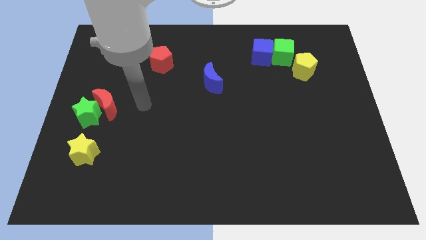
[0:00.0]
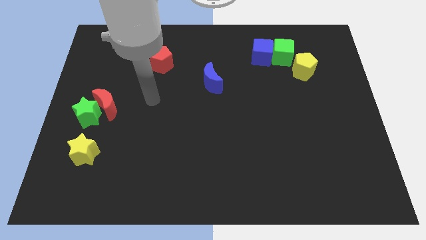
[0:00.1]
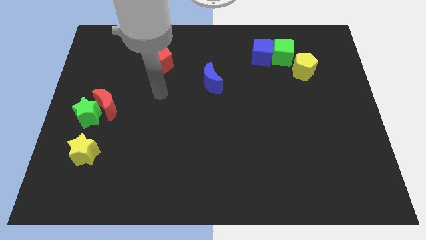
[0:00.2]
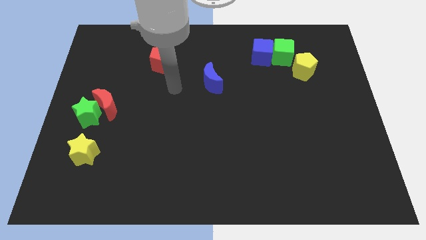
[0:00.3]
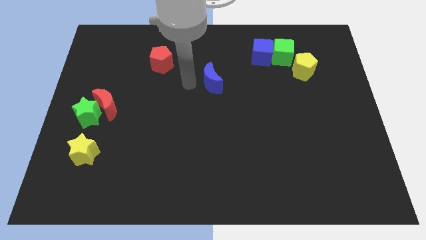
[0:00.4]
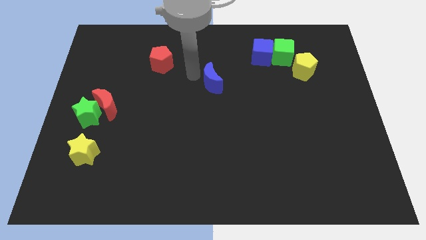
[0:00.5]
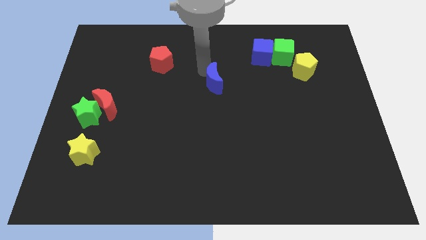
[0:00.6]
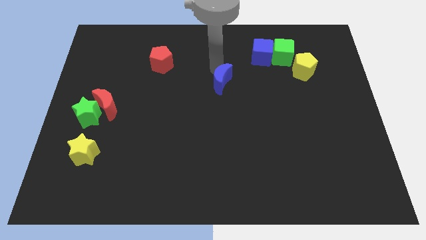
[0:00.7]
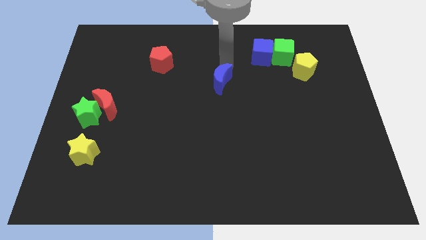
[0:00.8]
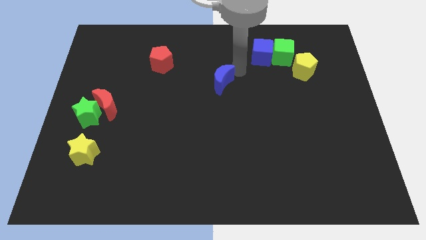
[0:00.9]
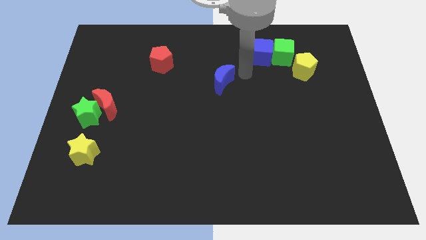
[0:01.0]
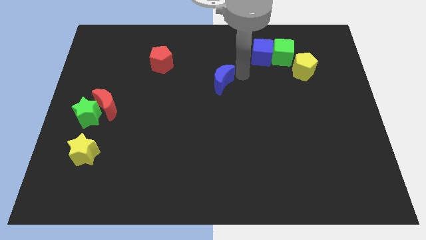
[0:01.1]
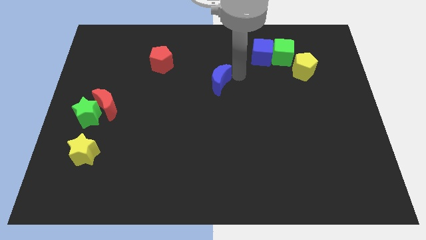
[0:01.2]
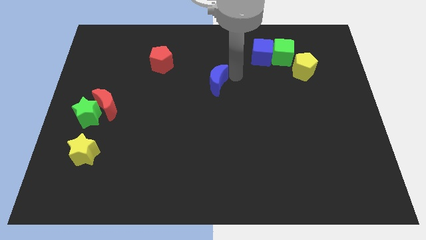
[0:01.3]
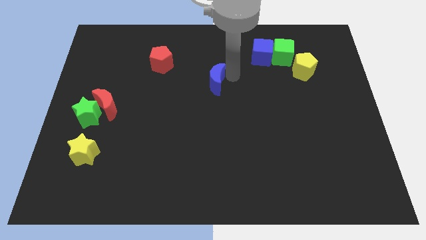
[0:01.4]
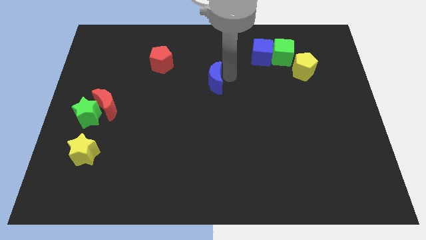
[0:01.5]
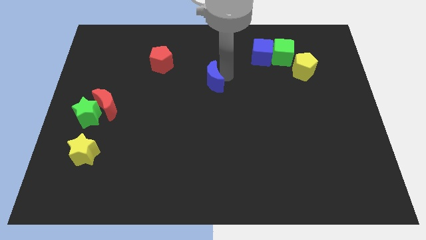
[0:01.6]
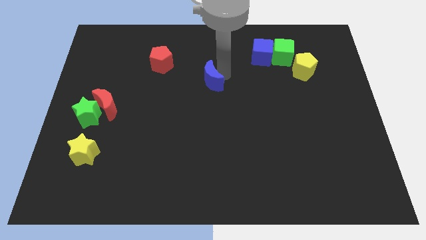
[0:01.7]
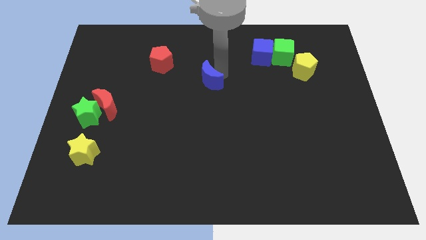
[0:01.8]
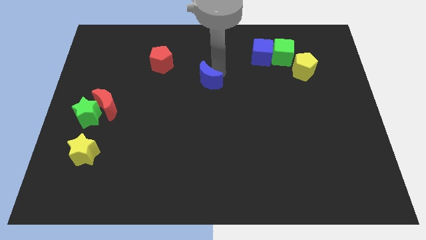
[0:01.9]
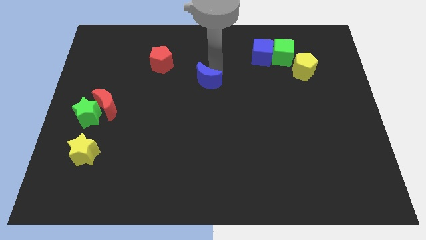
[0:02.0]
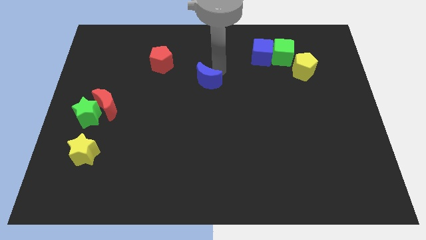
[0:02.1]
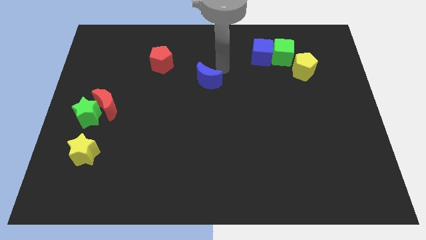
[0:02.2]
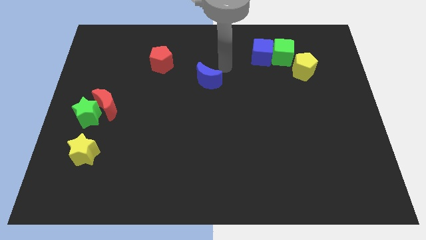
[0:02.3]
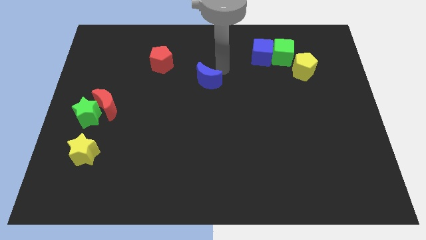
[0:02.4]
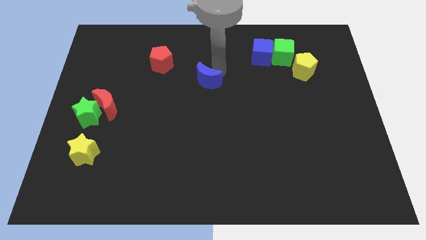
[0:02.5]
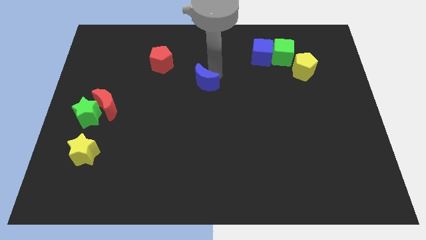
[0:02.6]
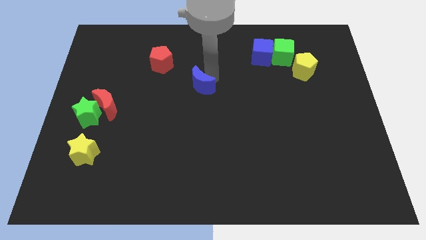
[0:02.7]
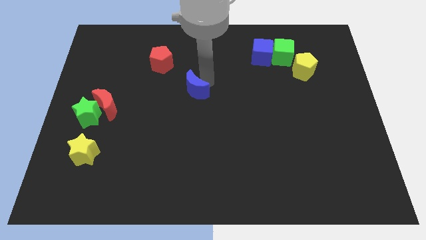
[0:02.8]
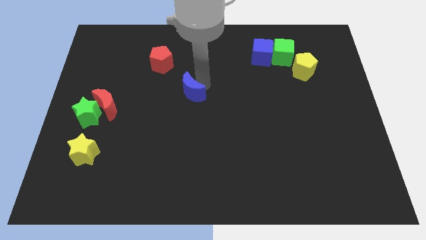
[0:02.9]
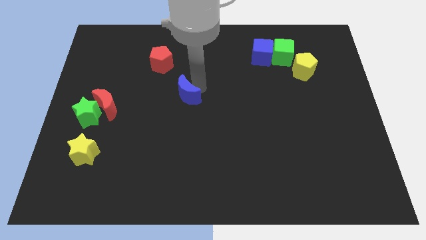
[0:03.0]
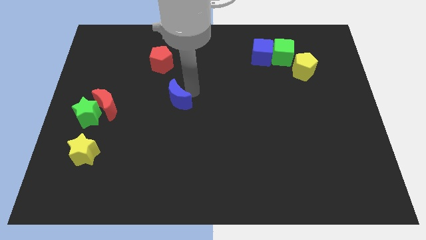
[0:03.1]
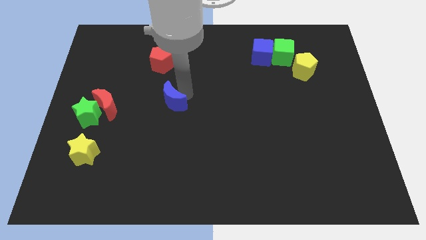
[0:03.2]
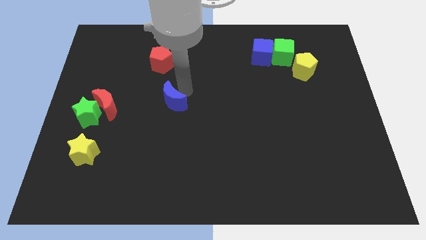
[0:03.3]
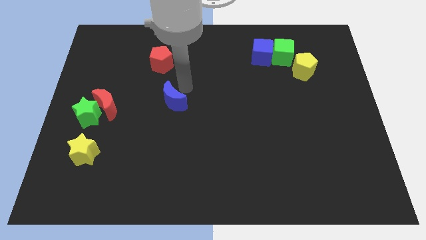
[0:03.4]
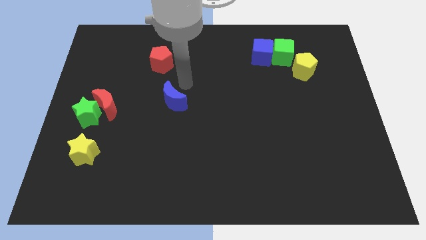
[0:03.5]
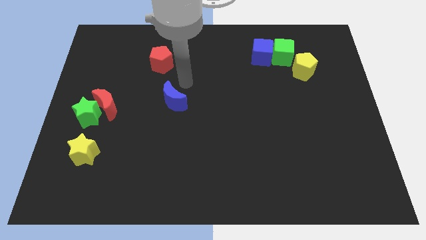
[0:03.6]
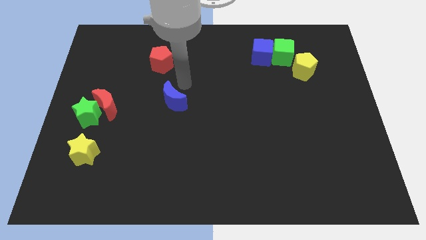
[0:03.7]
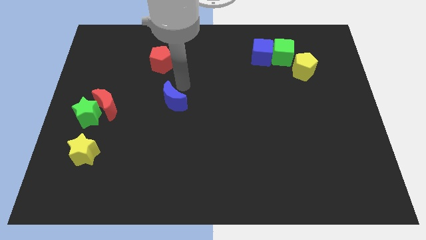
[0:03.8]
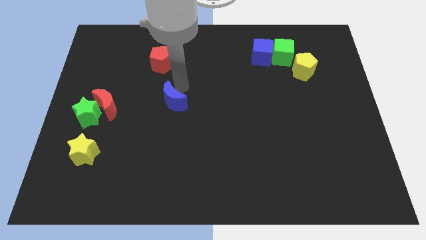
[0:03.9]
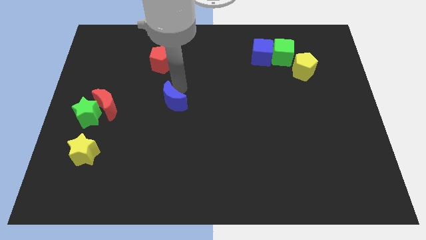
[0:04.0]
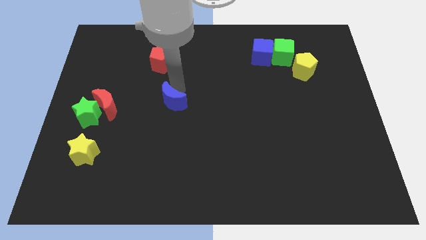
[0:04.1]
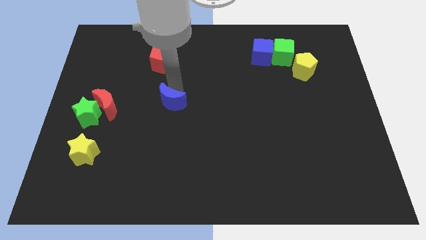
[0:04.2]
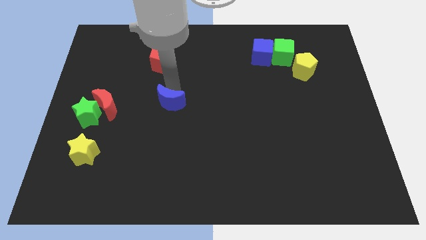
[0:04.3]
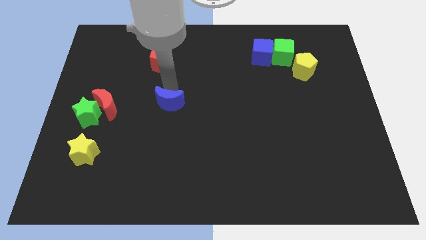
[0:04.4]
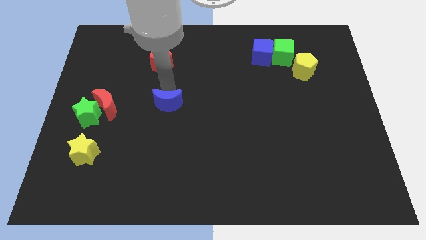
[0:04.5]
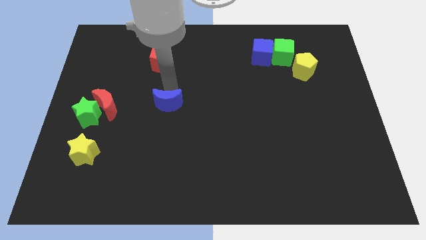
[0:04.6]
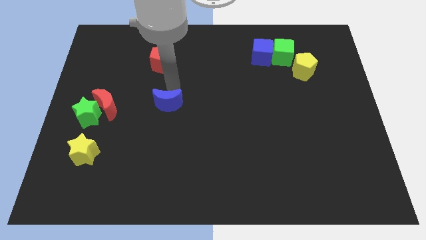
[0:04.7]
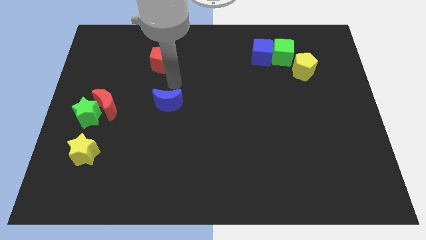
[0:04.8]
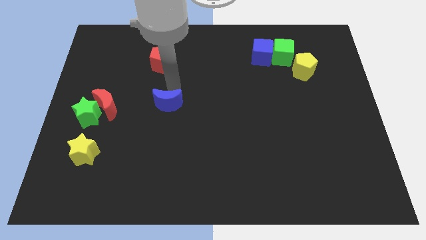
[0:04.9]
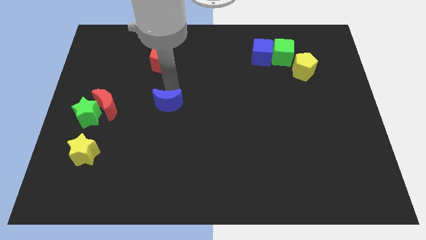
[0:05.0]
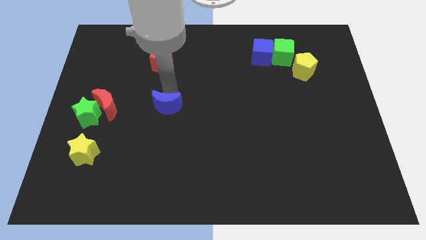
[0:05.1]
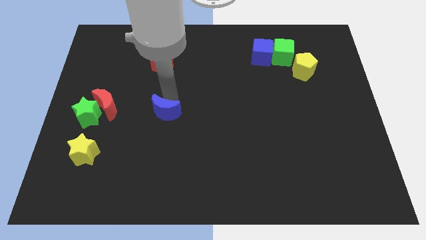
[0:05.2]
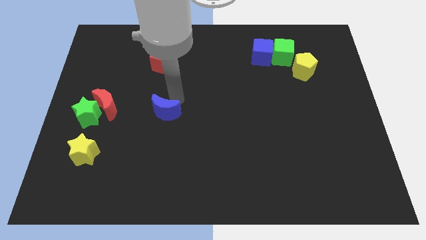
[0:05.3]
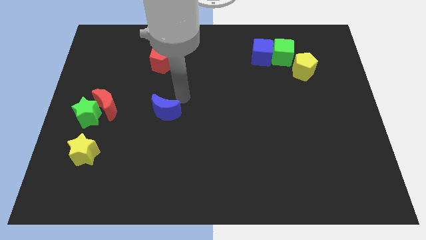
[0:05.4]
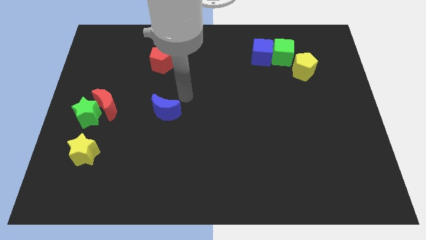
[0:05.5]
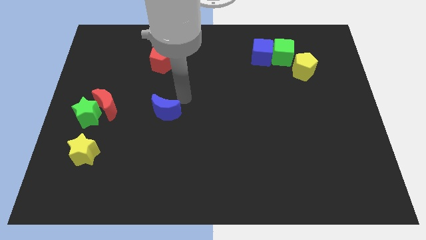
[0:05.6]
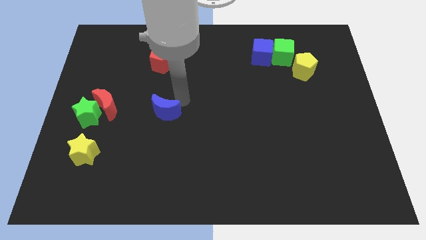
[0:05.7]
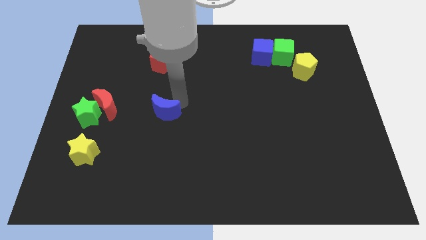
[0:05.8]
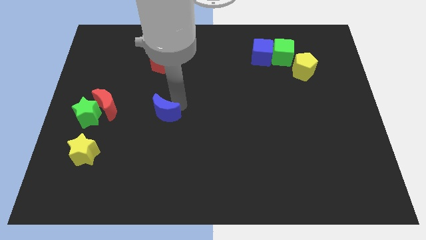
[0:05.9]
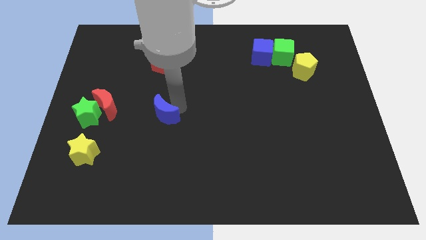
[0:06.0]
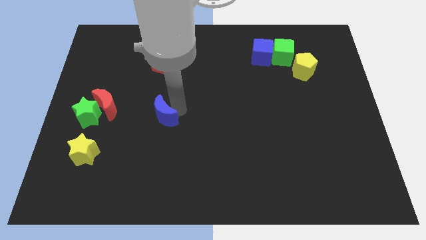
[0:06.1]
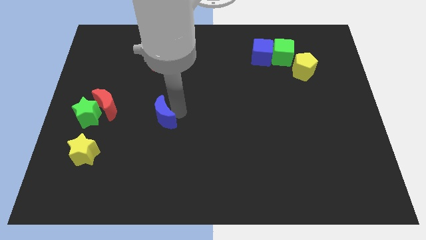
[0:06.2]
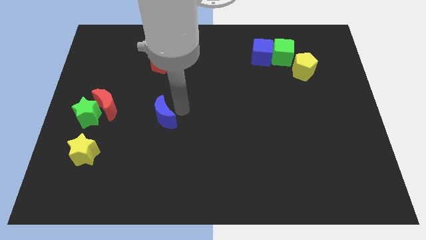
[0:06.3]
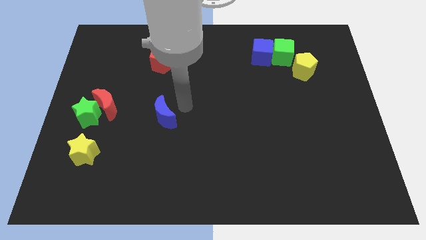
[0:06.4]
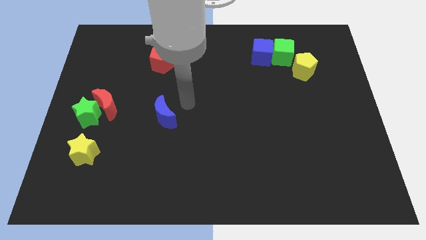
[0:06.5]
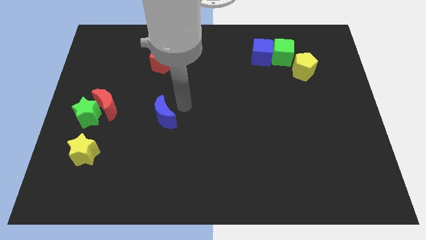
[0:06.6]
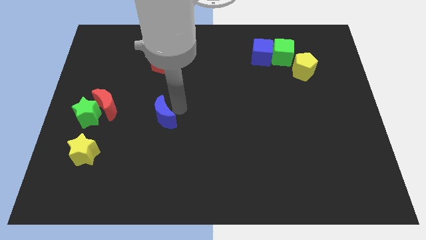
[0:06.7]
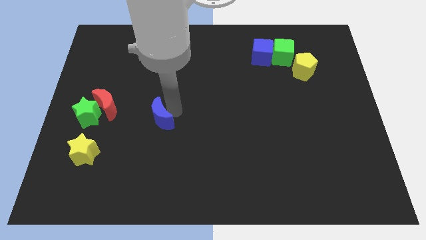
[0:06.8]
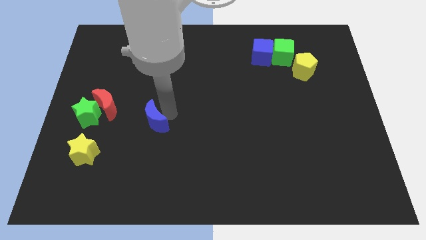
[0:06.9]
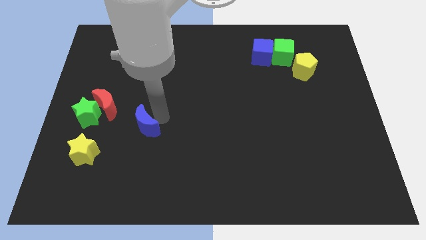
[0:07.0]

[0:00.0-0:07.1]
slide the blue moon down and then to the left

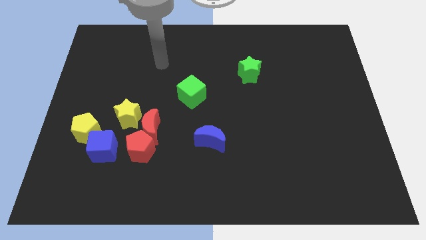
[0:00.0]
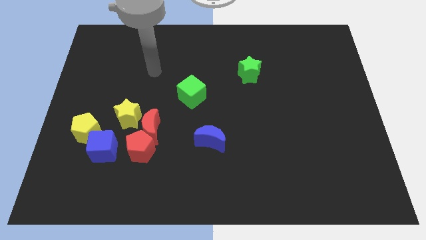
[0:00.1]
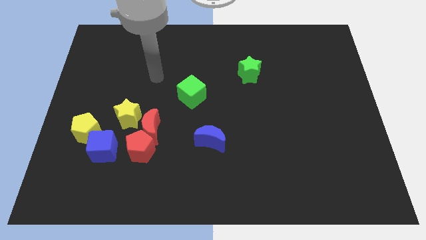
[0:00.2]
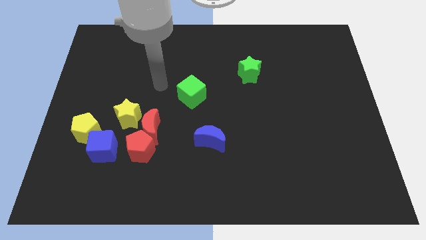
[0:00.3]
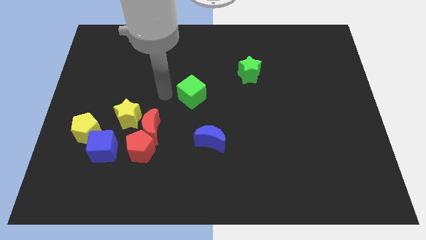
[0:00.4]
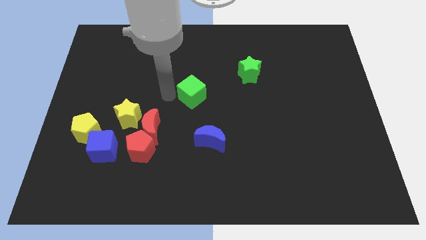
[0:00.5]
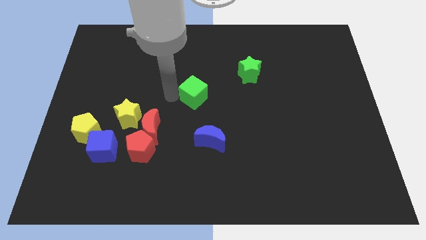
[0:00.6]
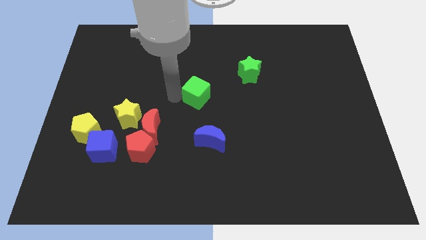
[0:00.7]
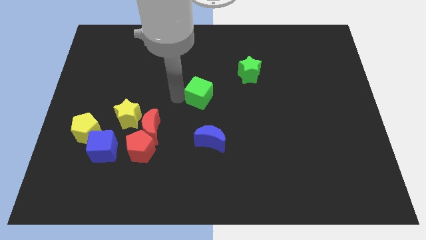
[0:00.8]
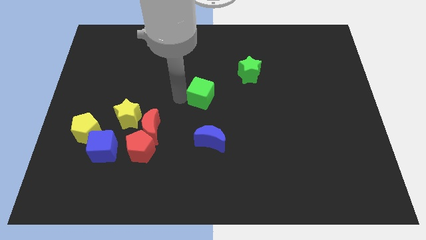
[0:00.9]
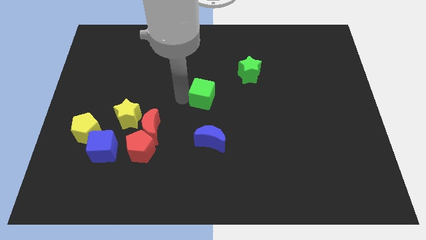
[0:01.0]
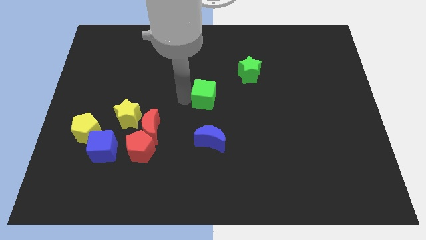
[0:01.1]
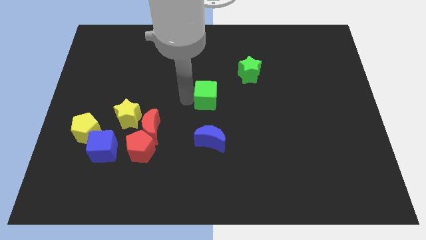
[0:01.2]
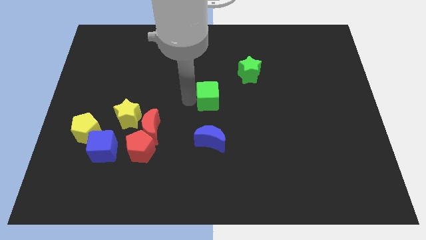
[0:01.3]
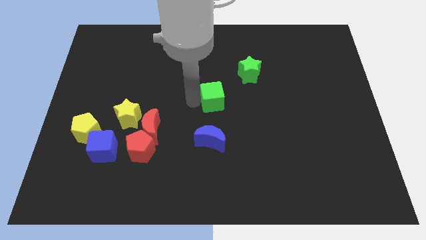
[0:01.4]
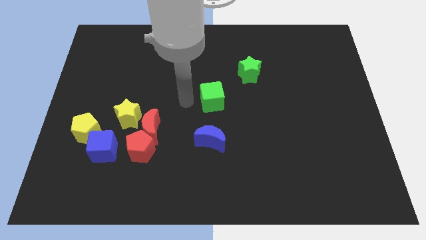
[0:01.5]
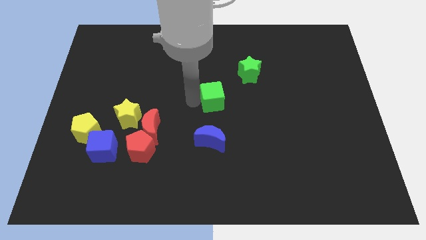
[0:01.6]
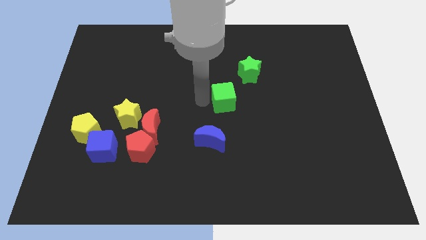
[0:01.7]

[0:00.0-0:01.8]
slightly slide the green cube right
